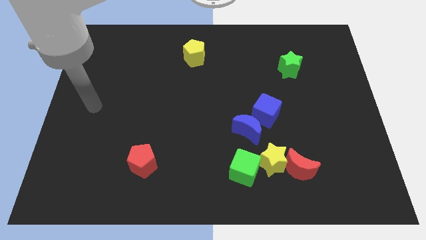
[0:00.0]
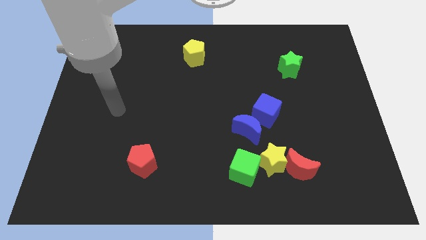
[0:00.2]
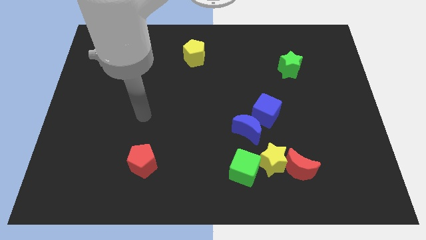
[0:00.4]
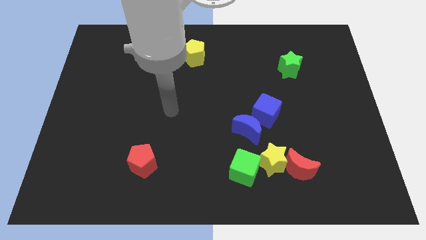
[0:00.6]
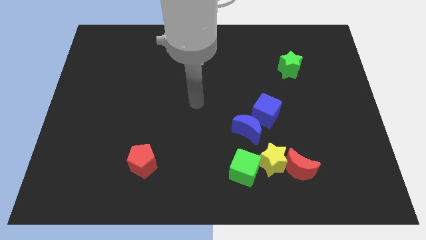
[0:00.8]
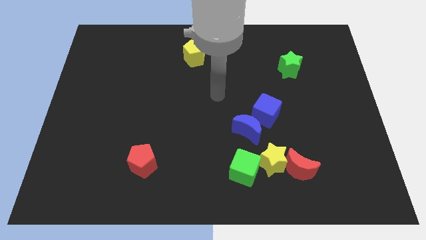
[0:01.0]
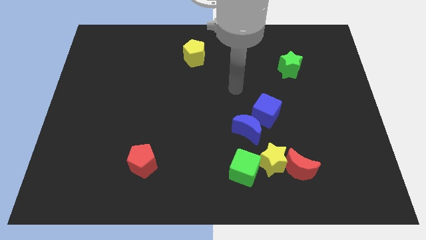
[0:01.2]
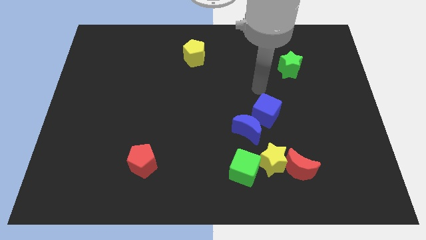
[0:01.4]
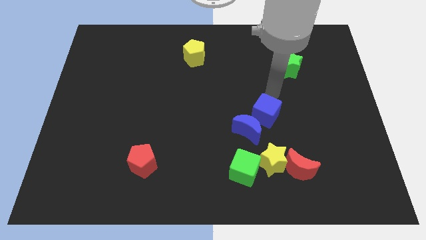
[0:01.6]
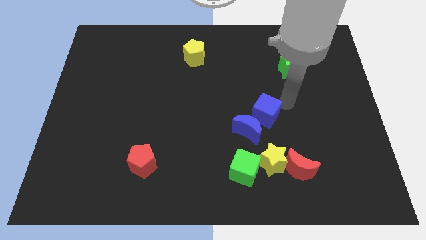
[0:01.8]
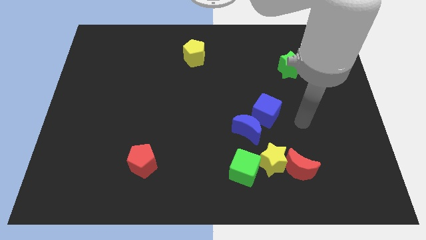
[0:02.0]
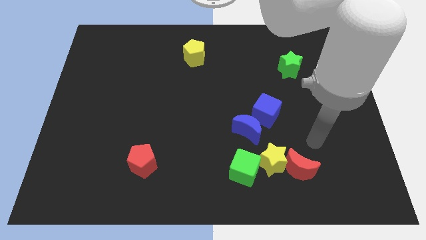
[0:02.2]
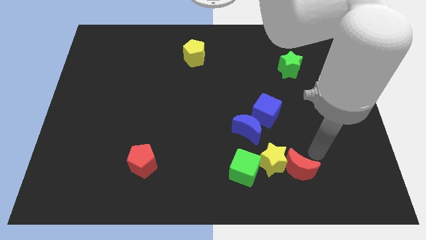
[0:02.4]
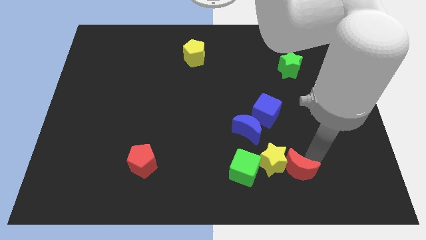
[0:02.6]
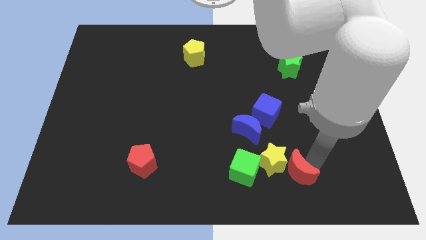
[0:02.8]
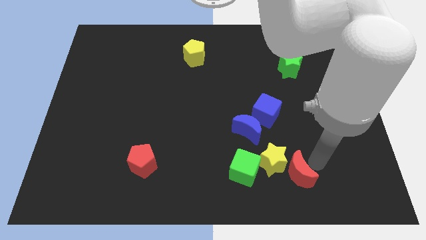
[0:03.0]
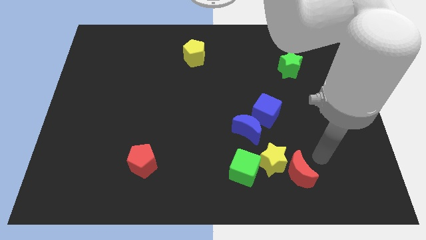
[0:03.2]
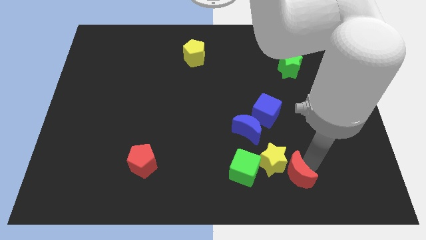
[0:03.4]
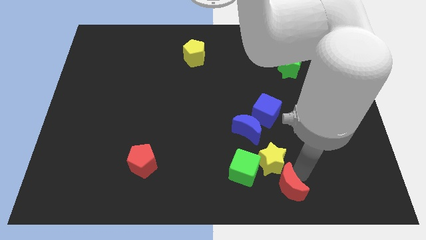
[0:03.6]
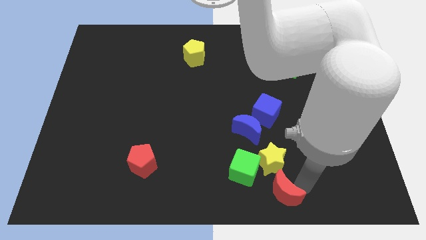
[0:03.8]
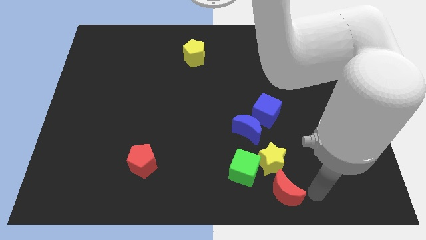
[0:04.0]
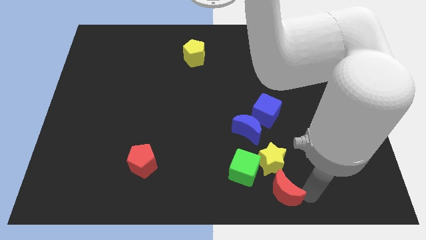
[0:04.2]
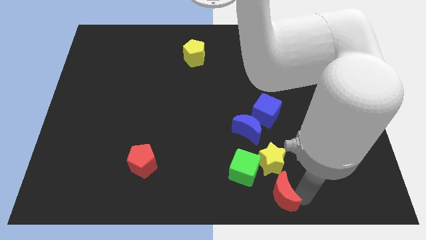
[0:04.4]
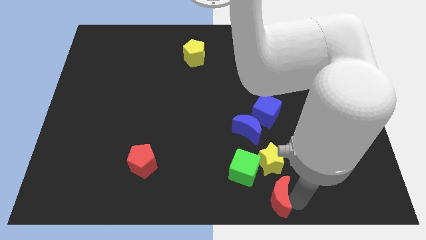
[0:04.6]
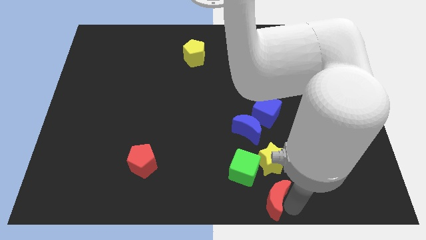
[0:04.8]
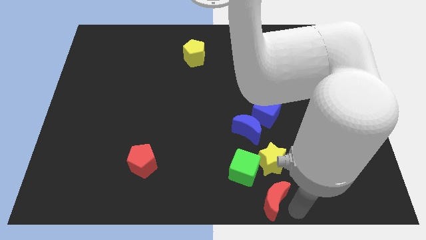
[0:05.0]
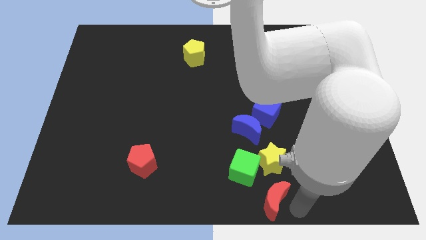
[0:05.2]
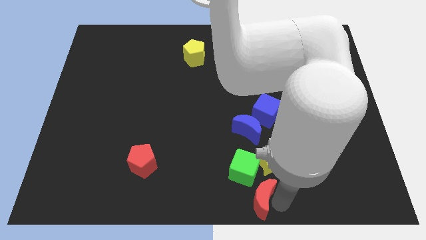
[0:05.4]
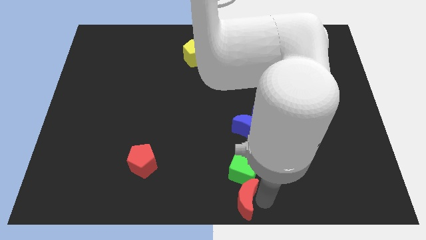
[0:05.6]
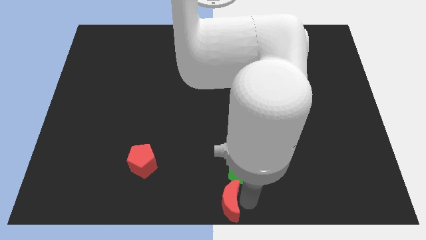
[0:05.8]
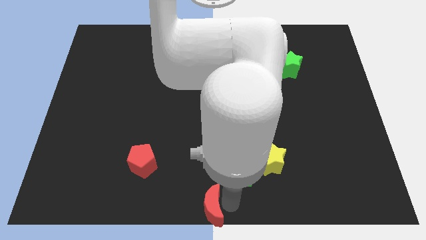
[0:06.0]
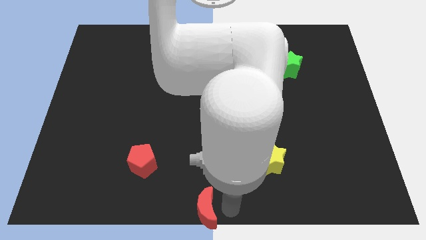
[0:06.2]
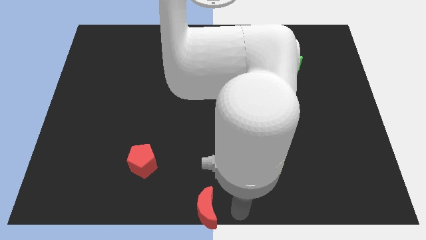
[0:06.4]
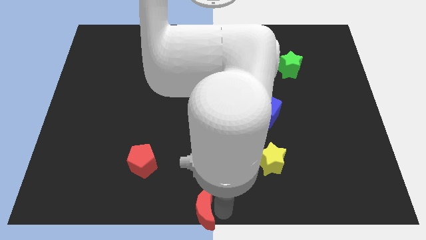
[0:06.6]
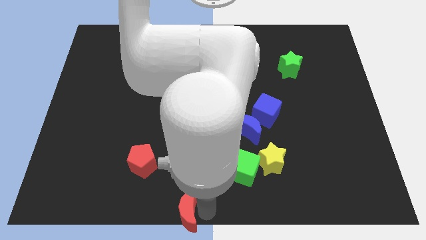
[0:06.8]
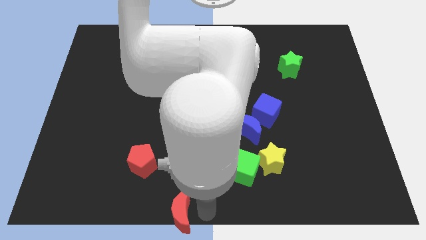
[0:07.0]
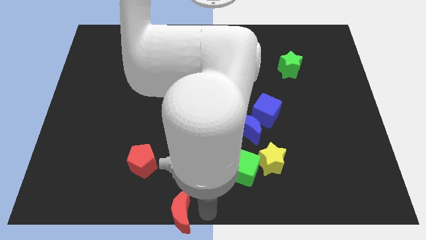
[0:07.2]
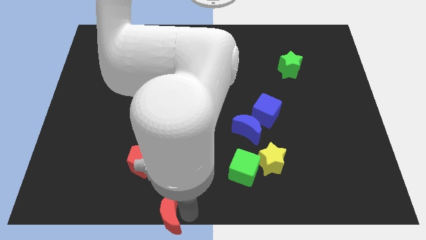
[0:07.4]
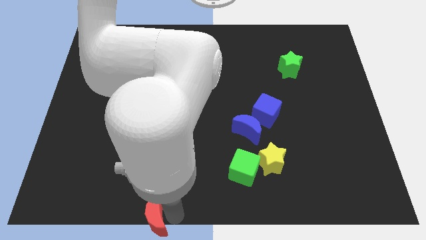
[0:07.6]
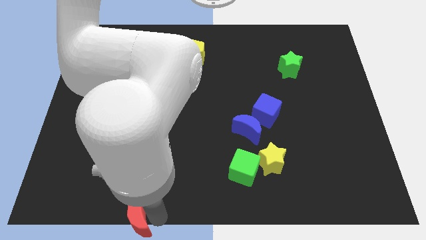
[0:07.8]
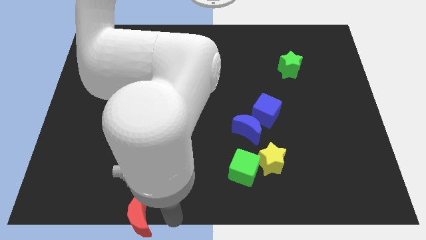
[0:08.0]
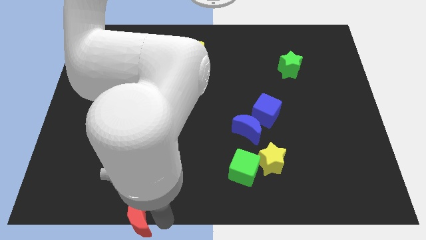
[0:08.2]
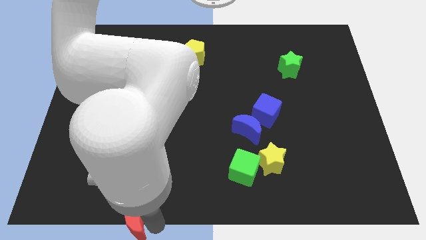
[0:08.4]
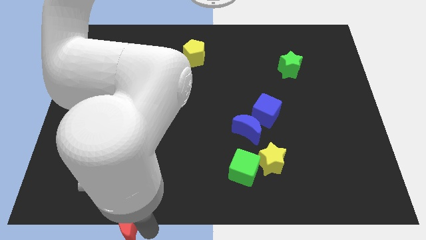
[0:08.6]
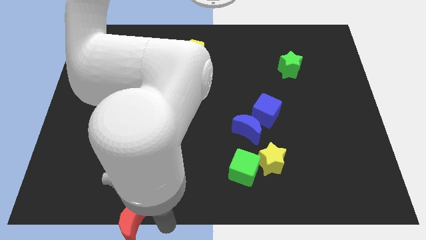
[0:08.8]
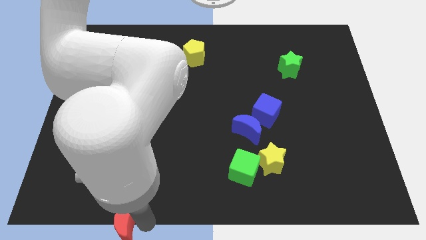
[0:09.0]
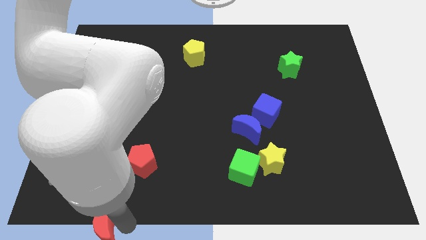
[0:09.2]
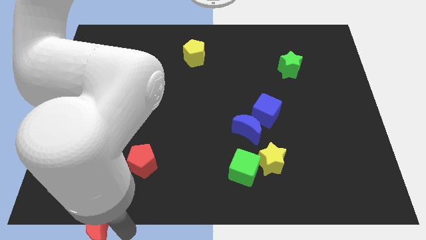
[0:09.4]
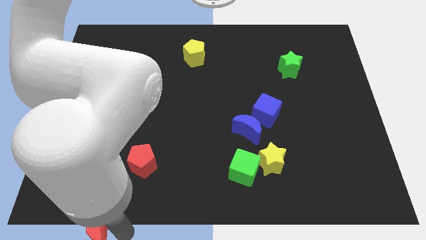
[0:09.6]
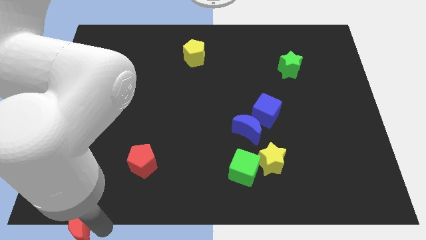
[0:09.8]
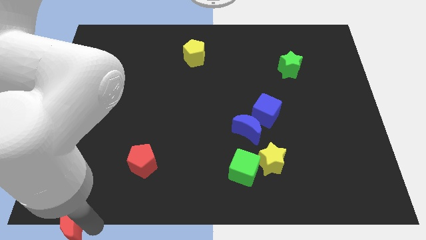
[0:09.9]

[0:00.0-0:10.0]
slide the red moon to the bottom left corner
